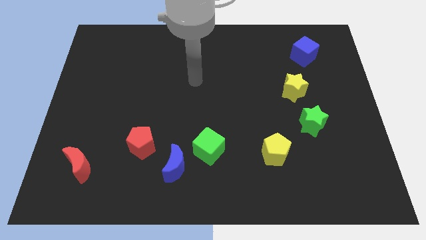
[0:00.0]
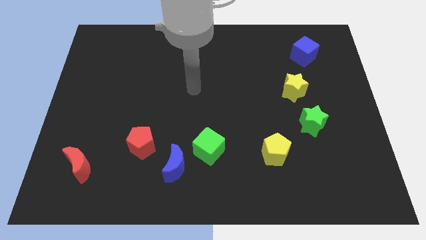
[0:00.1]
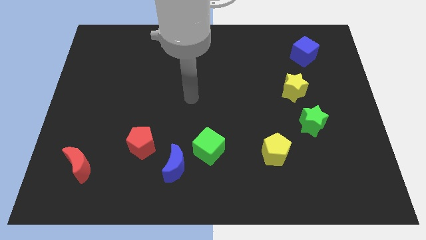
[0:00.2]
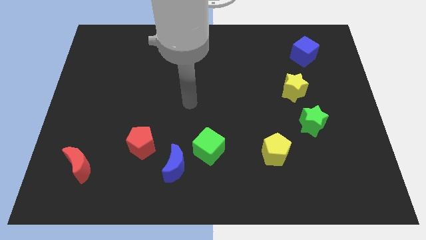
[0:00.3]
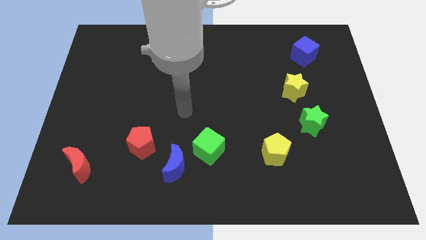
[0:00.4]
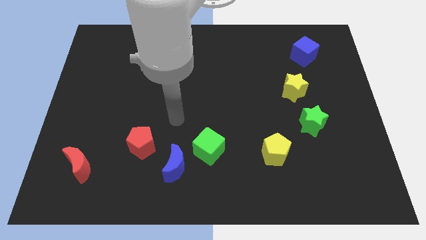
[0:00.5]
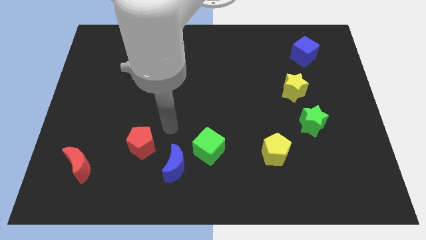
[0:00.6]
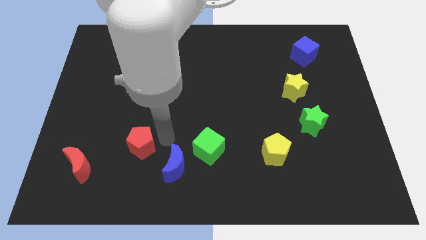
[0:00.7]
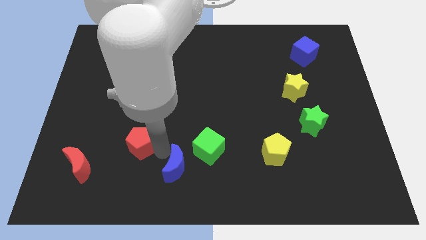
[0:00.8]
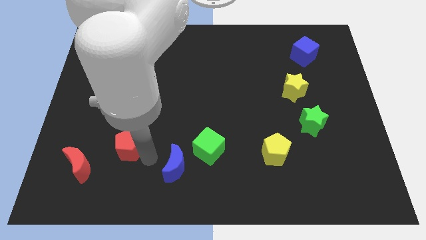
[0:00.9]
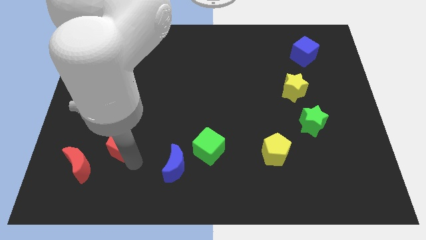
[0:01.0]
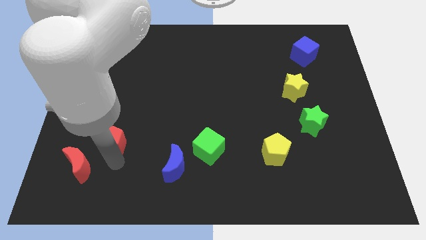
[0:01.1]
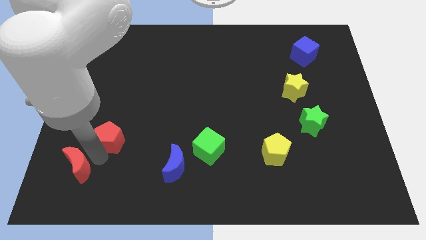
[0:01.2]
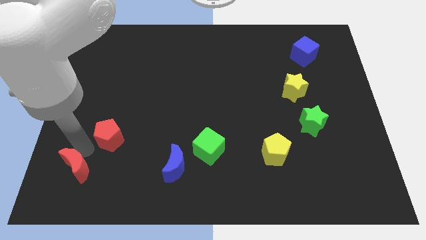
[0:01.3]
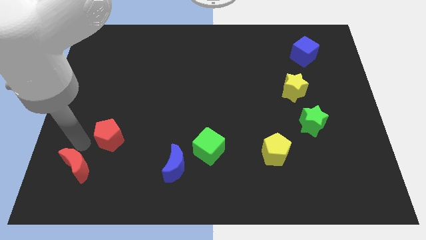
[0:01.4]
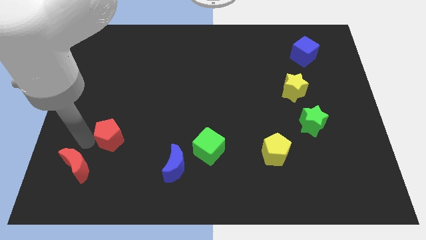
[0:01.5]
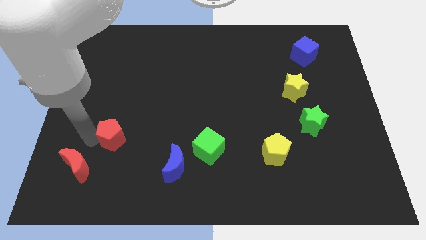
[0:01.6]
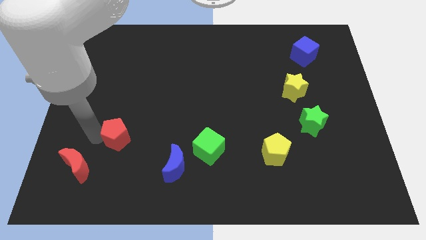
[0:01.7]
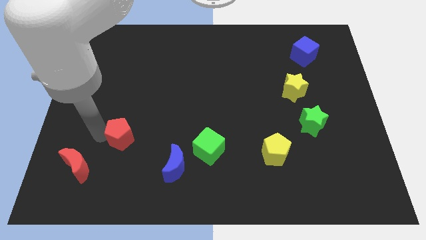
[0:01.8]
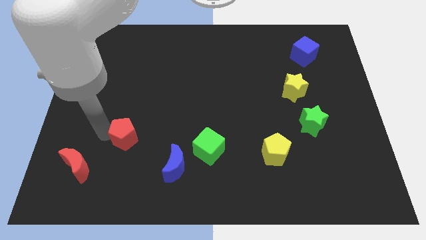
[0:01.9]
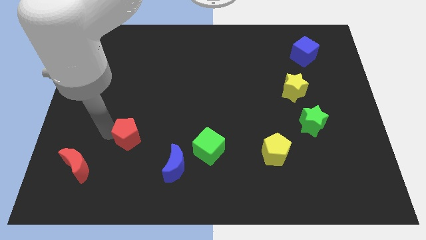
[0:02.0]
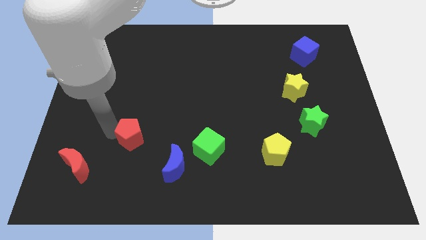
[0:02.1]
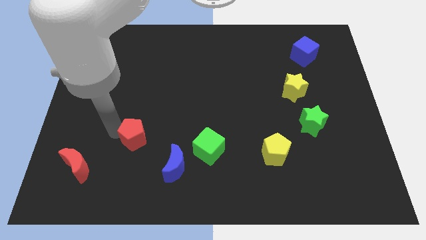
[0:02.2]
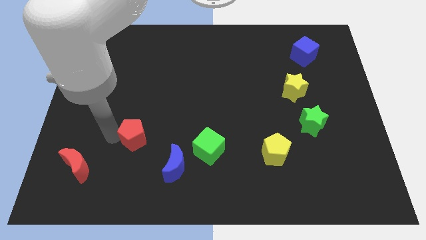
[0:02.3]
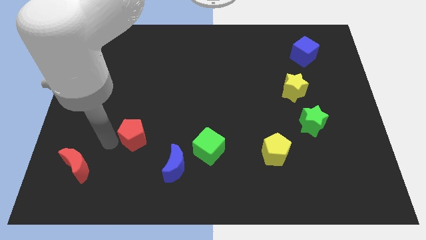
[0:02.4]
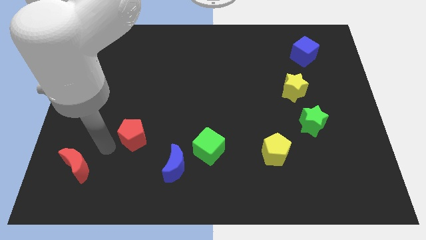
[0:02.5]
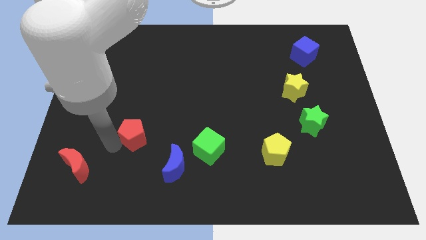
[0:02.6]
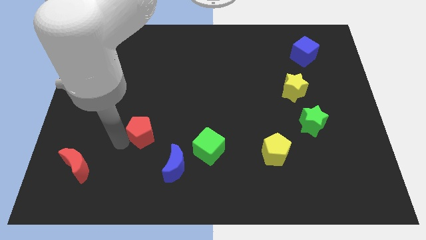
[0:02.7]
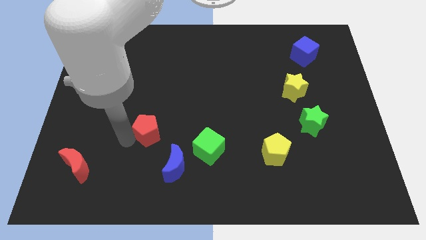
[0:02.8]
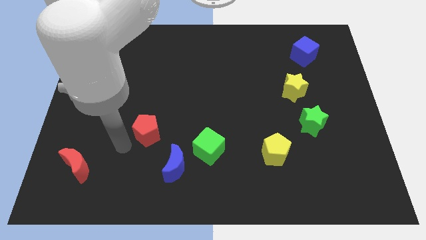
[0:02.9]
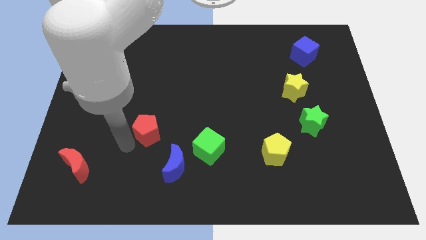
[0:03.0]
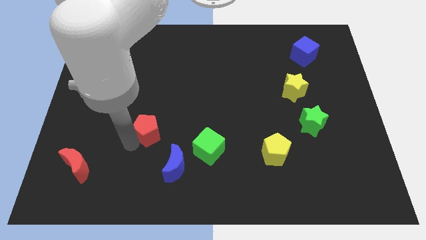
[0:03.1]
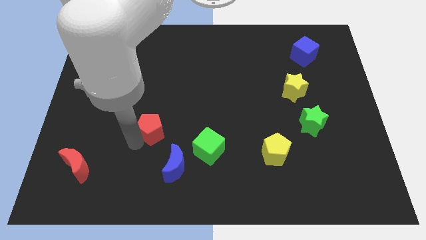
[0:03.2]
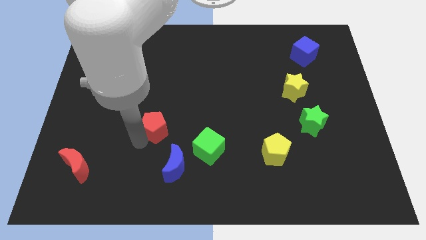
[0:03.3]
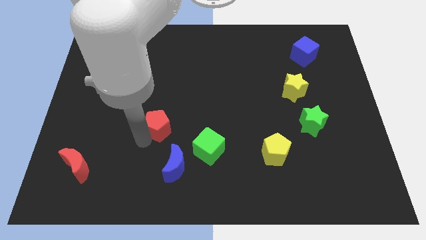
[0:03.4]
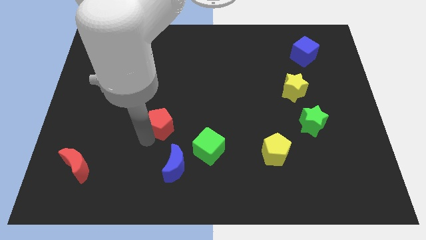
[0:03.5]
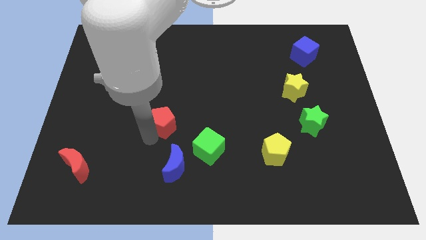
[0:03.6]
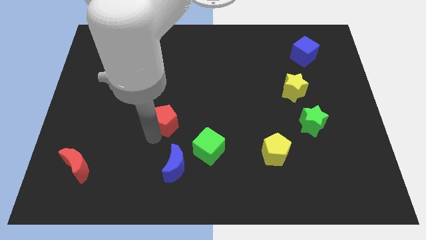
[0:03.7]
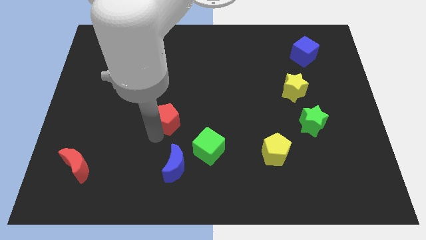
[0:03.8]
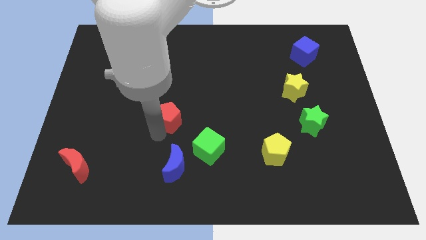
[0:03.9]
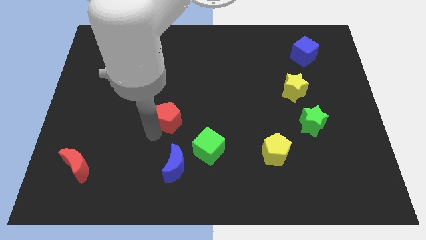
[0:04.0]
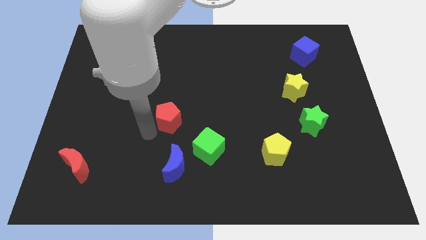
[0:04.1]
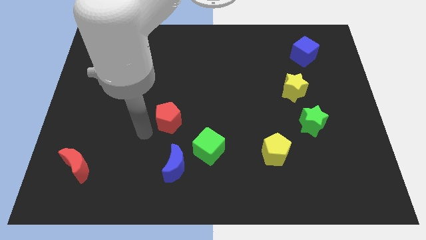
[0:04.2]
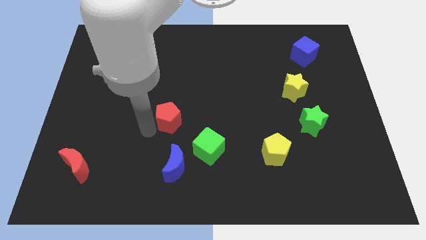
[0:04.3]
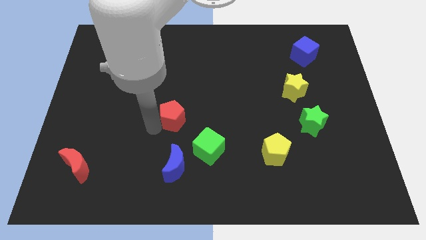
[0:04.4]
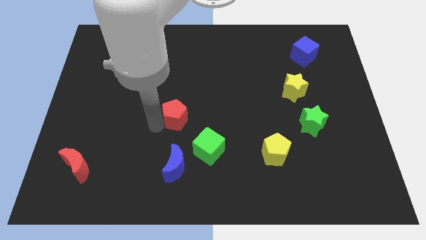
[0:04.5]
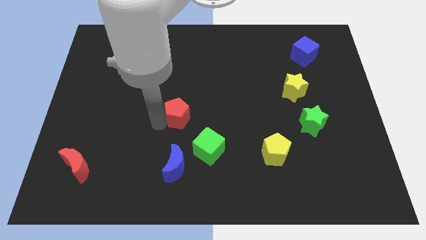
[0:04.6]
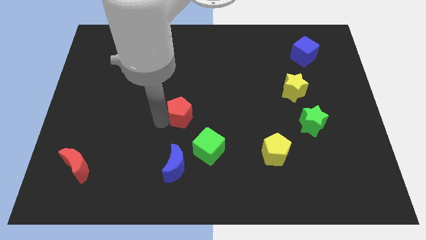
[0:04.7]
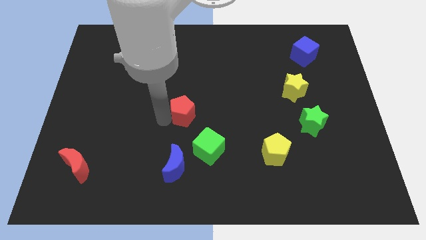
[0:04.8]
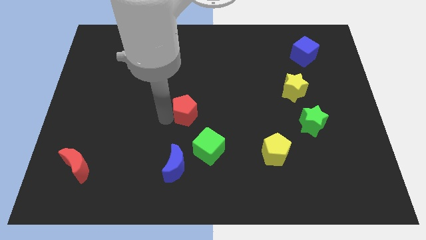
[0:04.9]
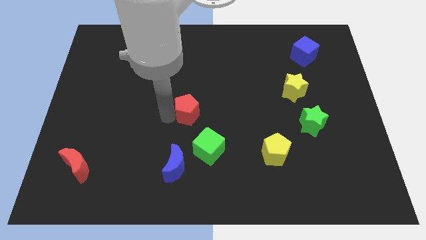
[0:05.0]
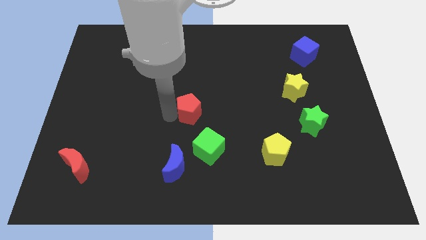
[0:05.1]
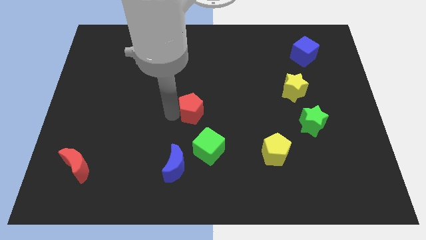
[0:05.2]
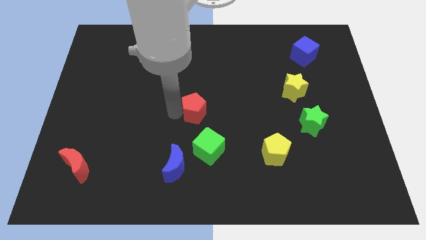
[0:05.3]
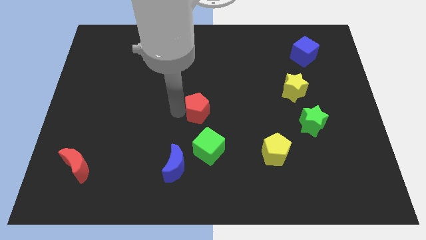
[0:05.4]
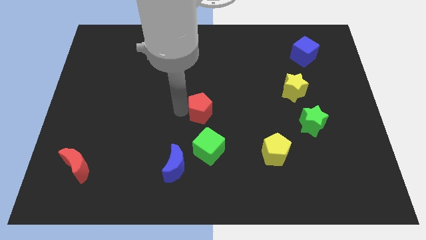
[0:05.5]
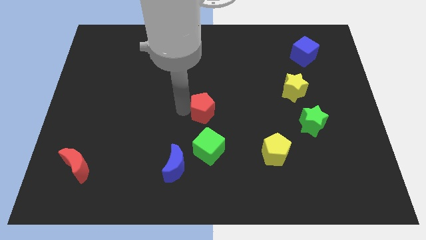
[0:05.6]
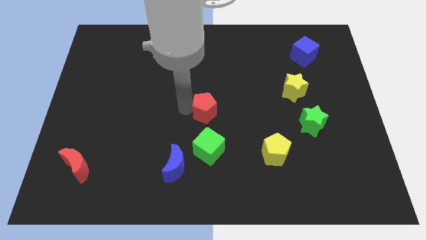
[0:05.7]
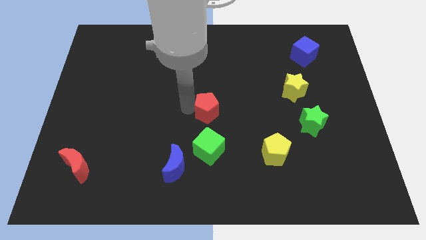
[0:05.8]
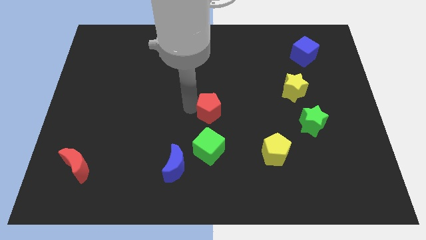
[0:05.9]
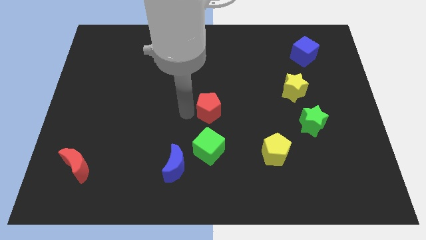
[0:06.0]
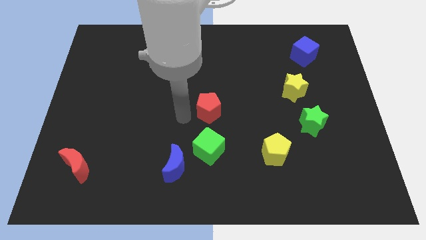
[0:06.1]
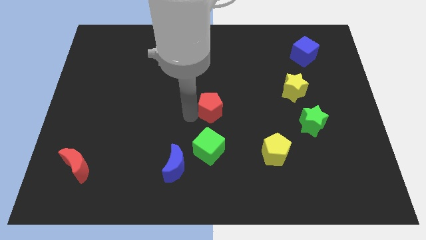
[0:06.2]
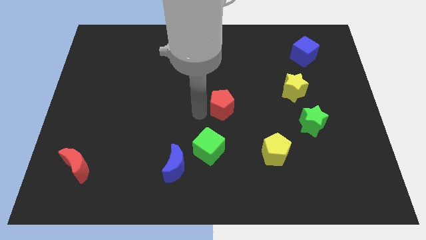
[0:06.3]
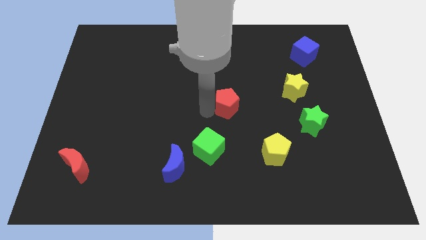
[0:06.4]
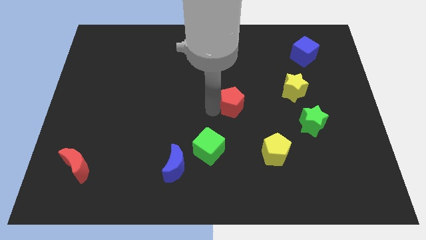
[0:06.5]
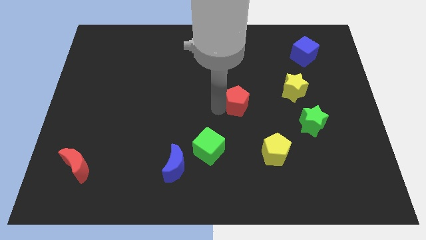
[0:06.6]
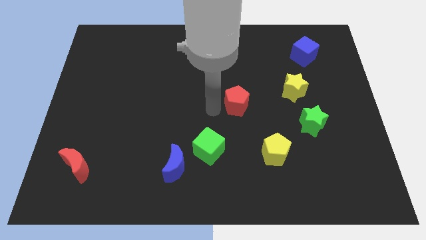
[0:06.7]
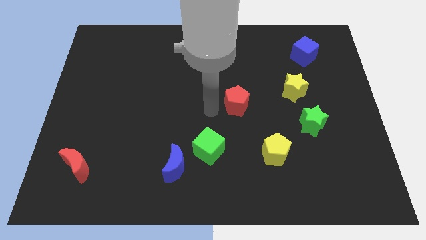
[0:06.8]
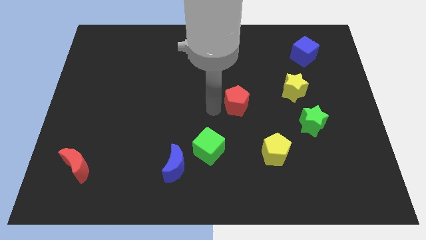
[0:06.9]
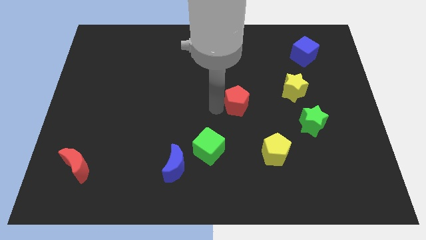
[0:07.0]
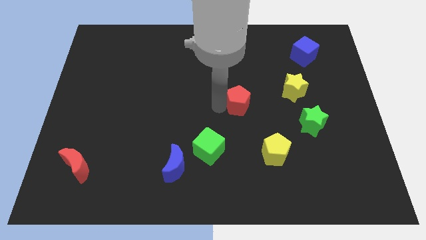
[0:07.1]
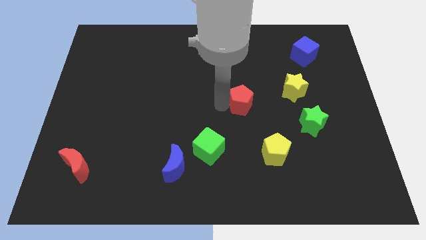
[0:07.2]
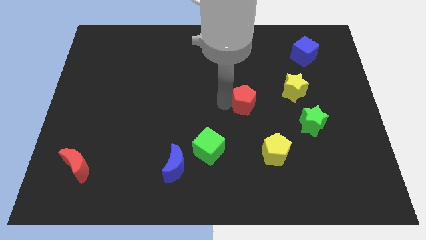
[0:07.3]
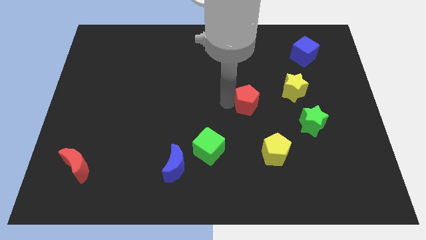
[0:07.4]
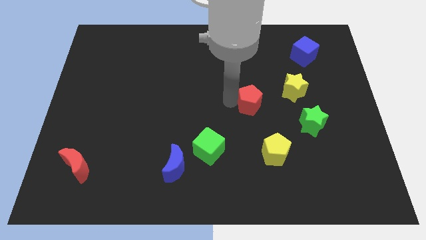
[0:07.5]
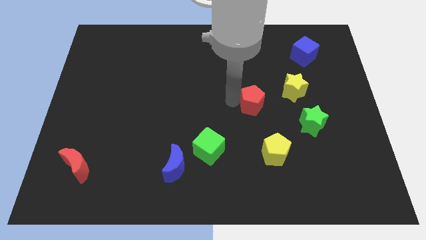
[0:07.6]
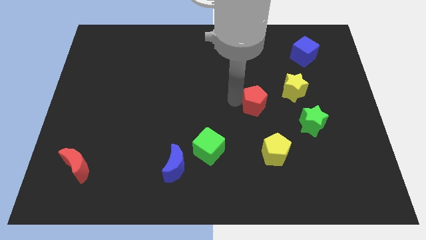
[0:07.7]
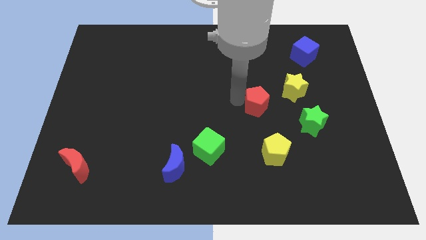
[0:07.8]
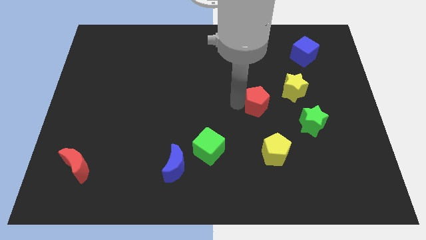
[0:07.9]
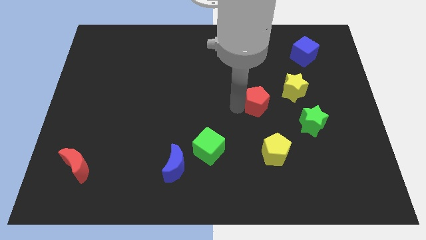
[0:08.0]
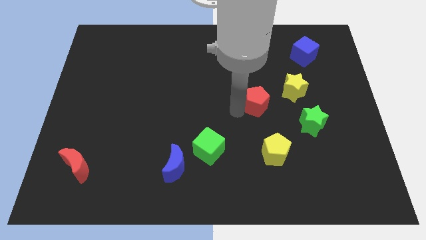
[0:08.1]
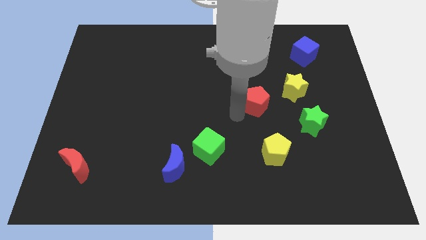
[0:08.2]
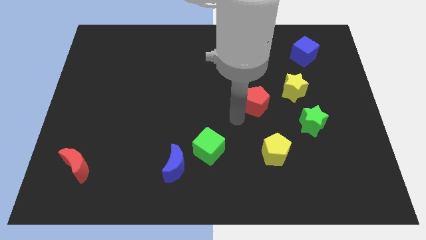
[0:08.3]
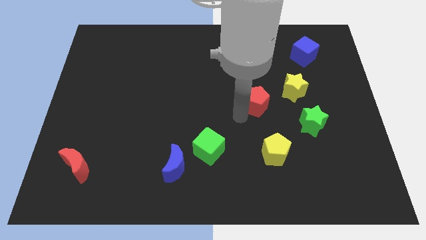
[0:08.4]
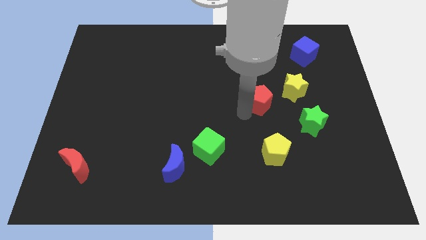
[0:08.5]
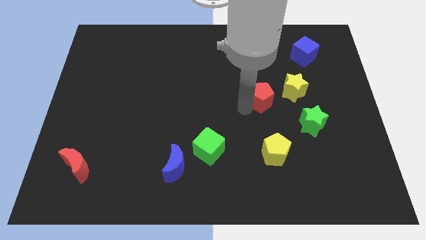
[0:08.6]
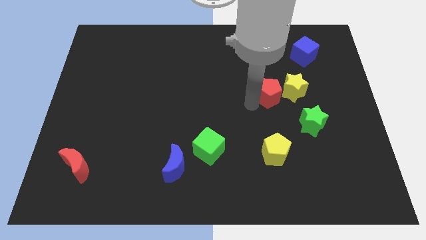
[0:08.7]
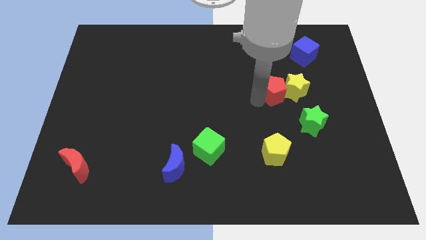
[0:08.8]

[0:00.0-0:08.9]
move the red pentagon to the yellow star
